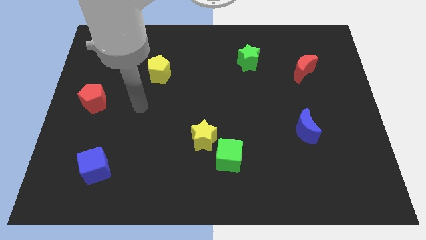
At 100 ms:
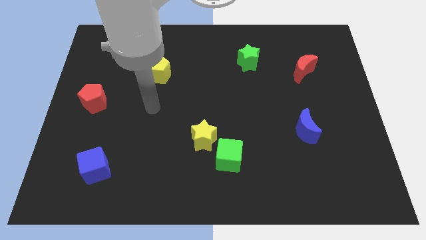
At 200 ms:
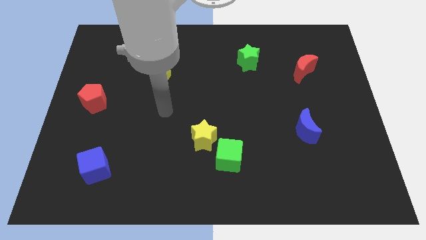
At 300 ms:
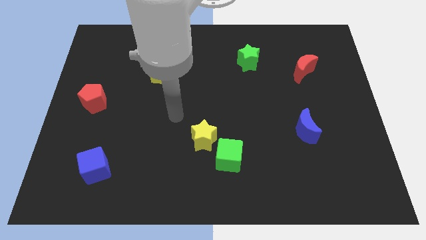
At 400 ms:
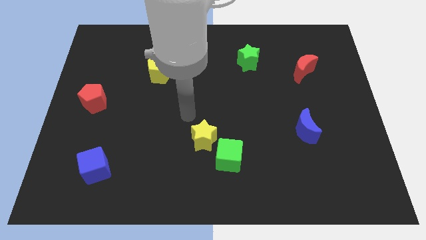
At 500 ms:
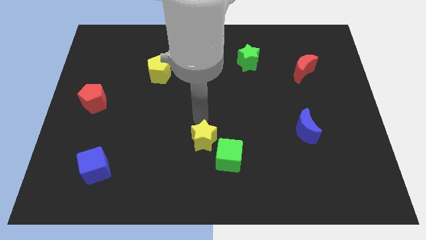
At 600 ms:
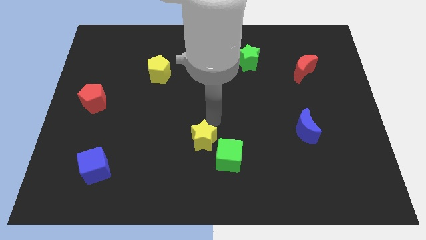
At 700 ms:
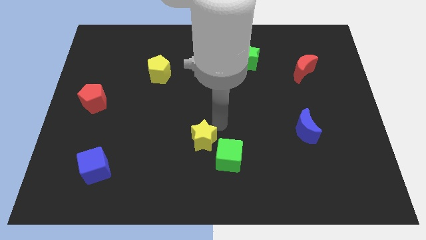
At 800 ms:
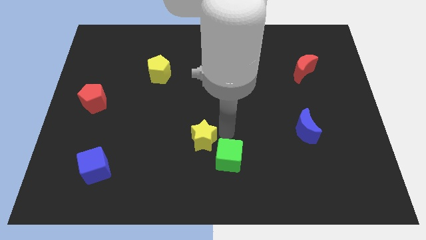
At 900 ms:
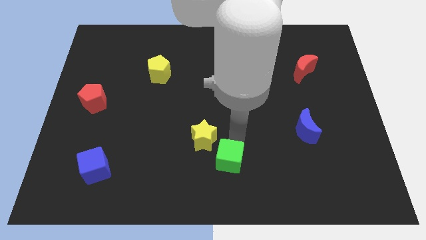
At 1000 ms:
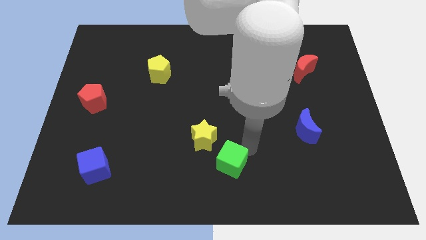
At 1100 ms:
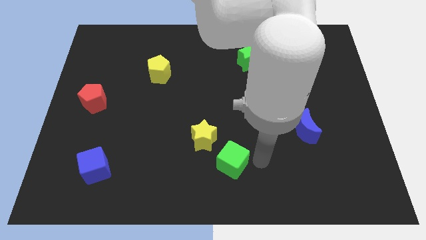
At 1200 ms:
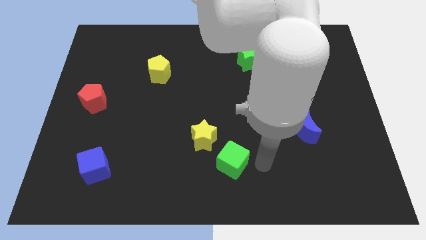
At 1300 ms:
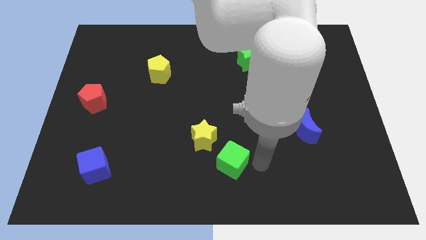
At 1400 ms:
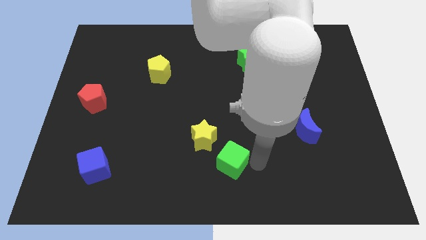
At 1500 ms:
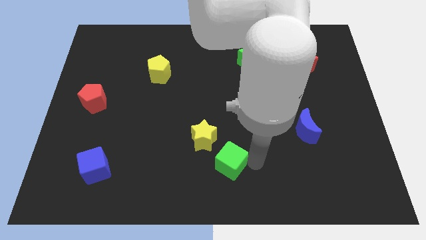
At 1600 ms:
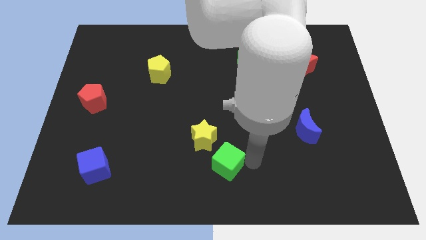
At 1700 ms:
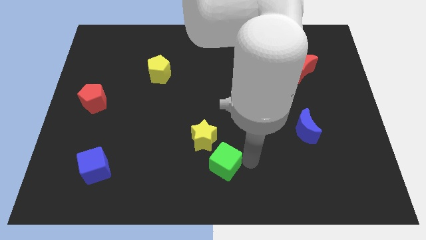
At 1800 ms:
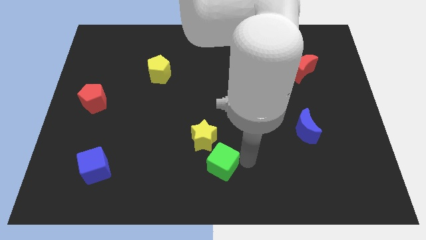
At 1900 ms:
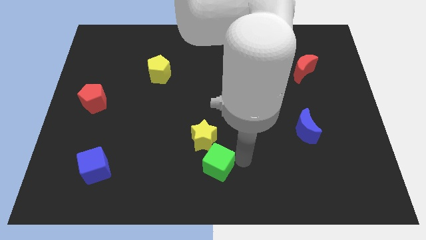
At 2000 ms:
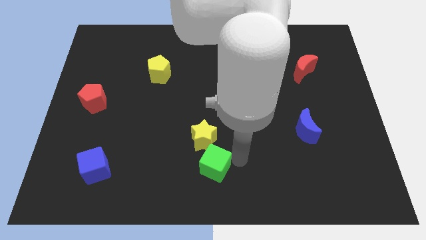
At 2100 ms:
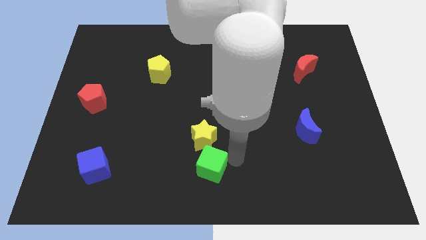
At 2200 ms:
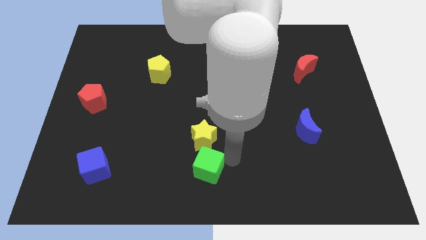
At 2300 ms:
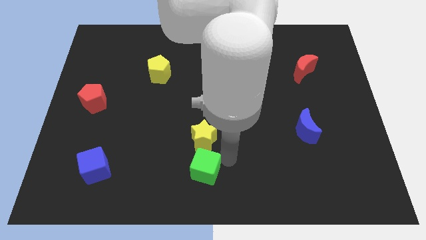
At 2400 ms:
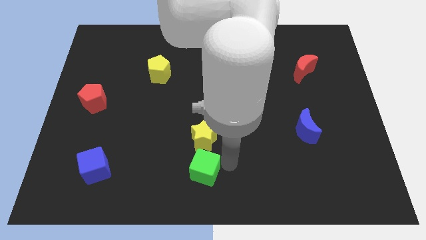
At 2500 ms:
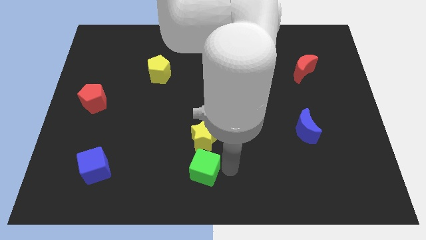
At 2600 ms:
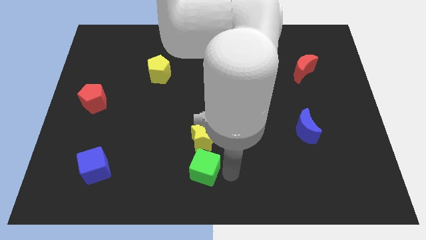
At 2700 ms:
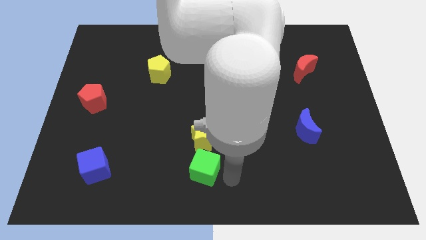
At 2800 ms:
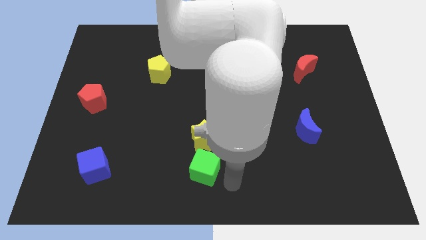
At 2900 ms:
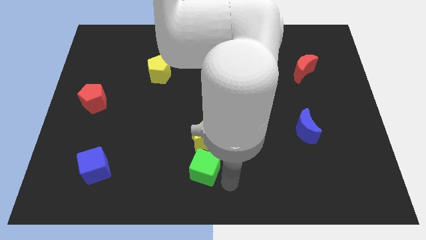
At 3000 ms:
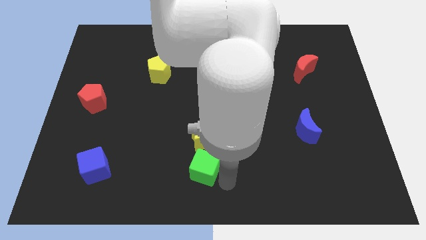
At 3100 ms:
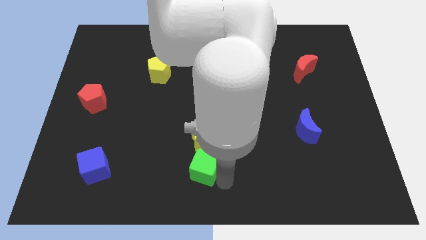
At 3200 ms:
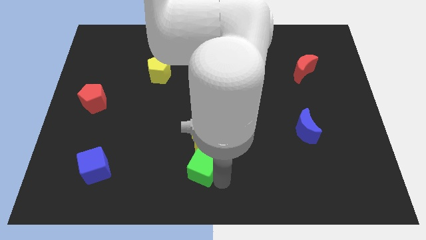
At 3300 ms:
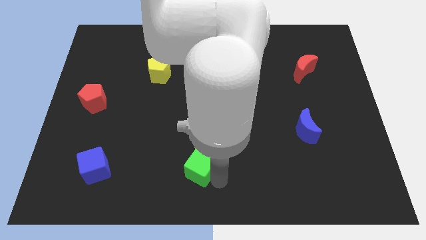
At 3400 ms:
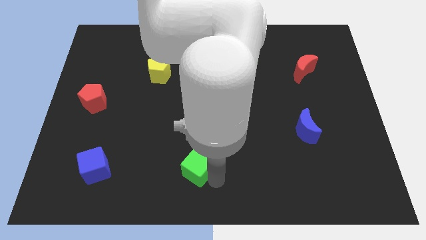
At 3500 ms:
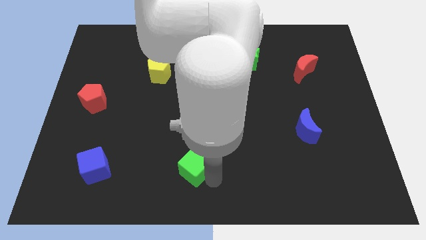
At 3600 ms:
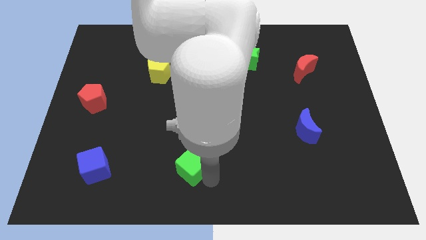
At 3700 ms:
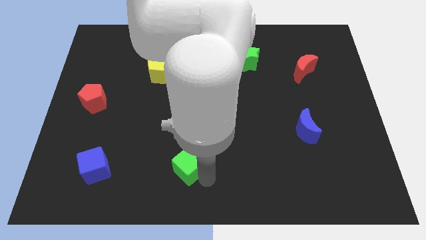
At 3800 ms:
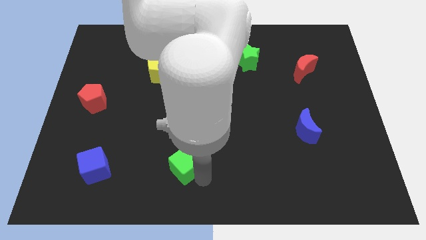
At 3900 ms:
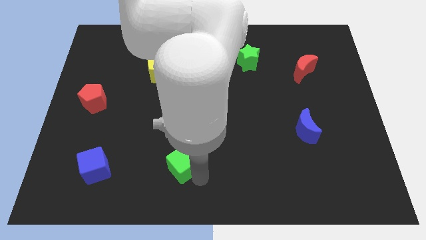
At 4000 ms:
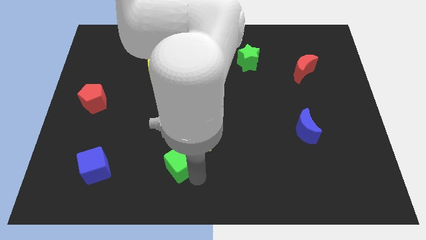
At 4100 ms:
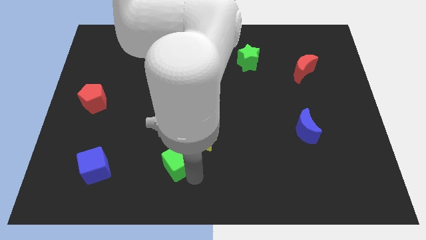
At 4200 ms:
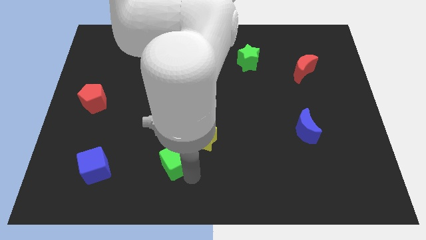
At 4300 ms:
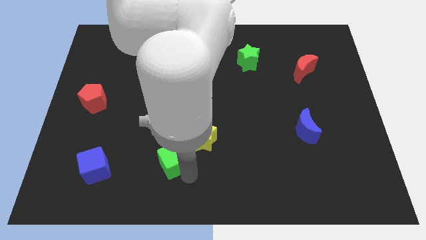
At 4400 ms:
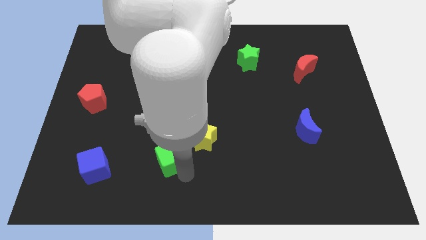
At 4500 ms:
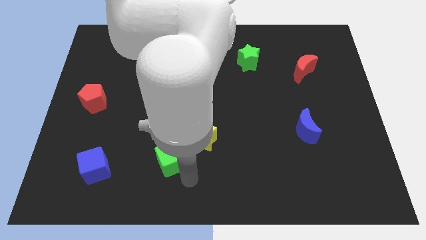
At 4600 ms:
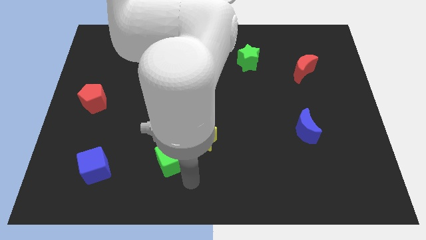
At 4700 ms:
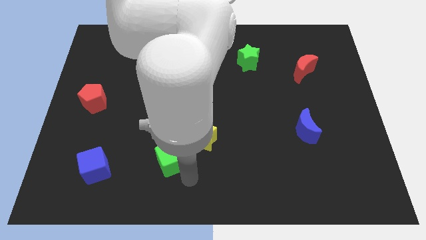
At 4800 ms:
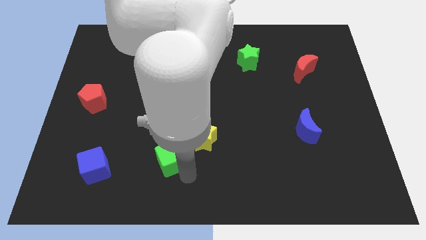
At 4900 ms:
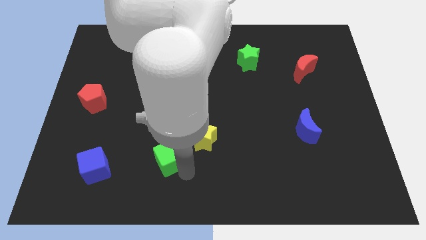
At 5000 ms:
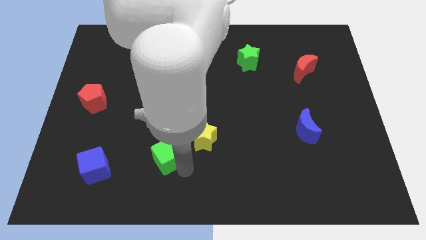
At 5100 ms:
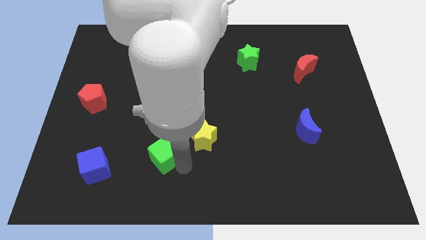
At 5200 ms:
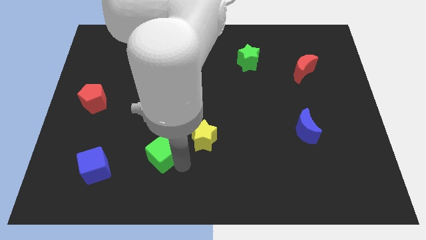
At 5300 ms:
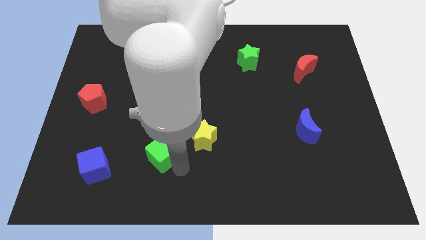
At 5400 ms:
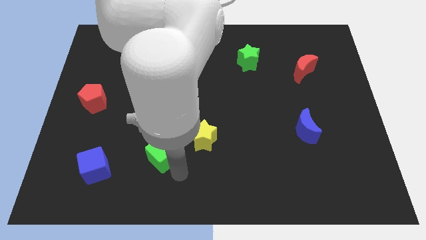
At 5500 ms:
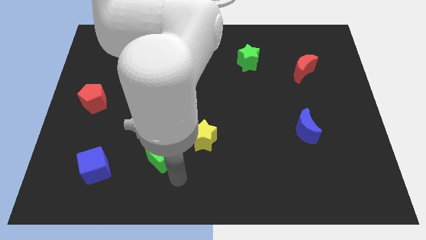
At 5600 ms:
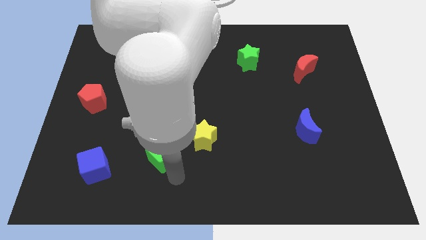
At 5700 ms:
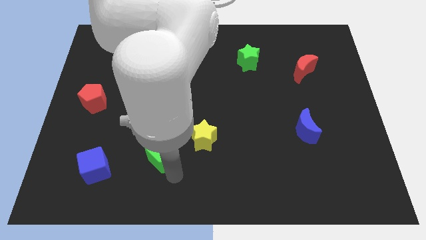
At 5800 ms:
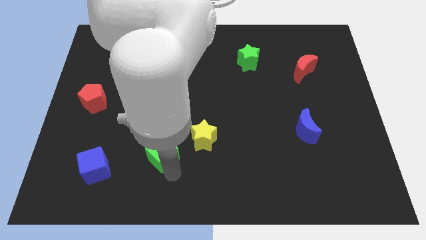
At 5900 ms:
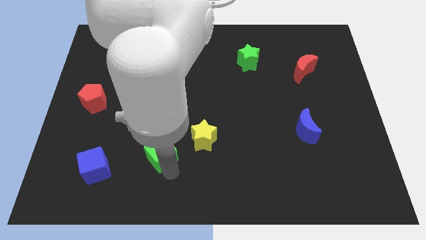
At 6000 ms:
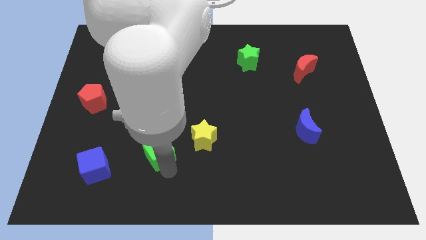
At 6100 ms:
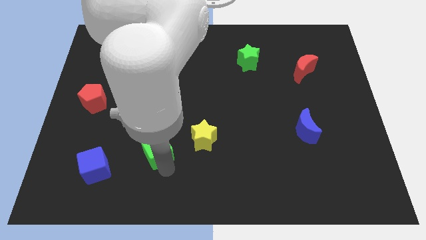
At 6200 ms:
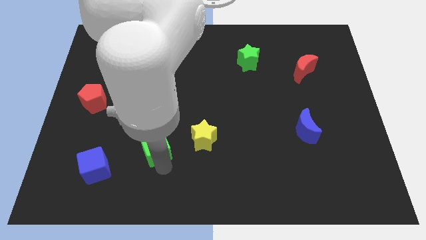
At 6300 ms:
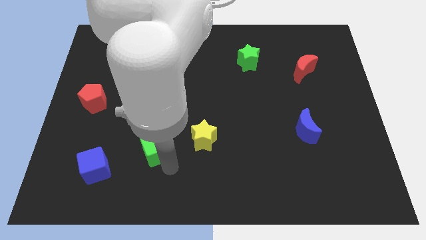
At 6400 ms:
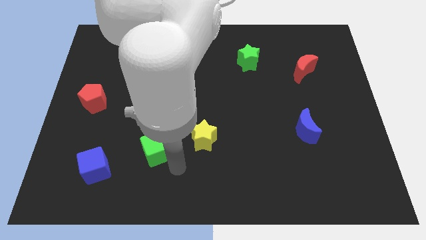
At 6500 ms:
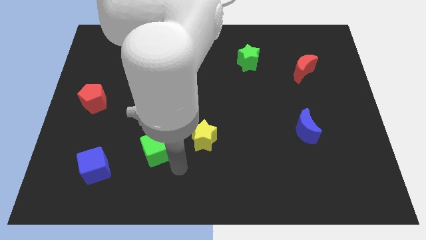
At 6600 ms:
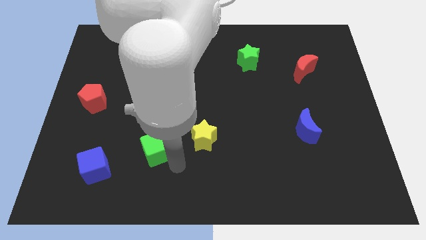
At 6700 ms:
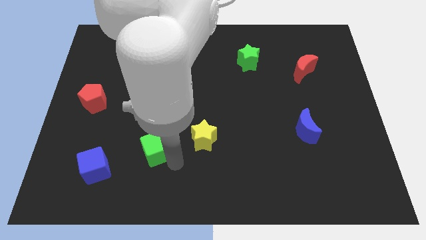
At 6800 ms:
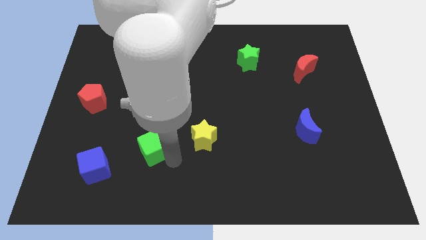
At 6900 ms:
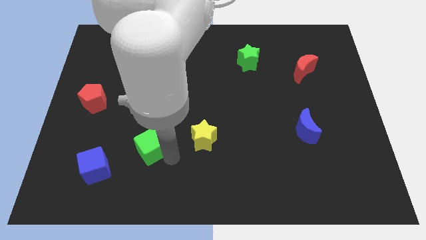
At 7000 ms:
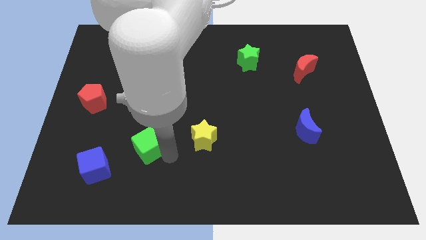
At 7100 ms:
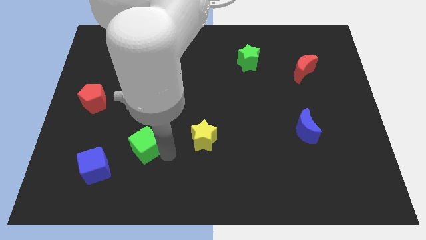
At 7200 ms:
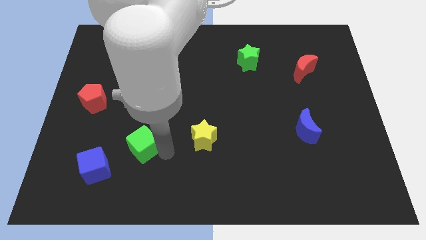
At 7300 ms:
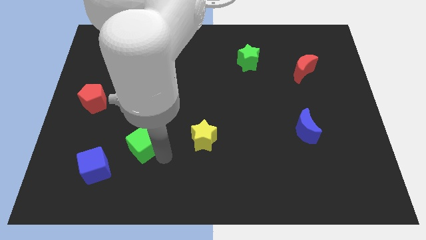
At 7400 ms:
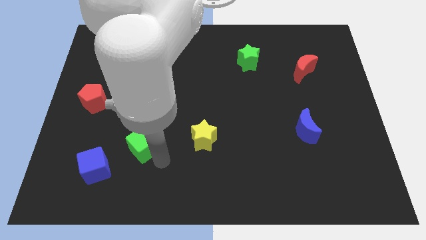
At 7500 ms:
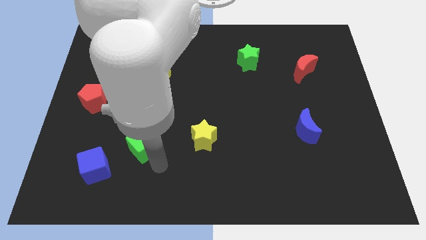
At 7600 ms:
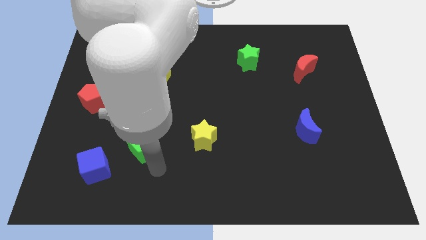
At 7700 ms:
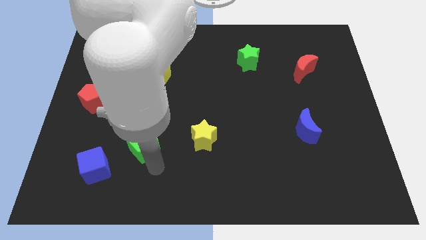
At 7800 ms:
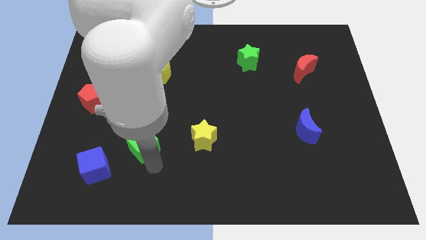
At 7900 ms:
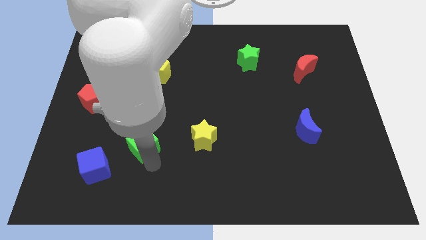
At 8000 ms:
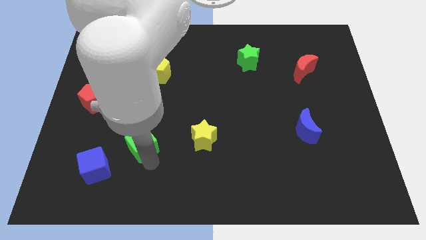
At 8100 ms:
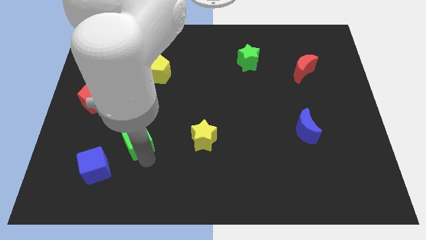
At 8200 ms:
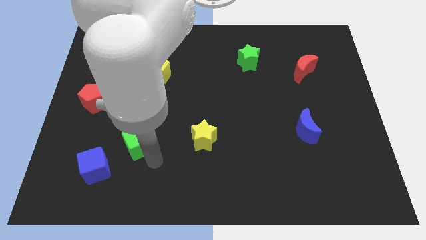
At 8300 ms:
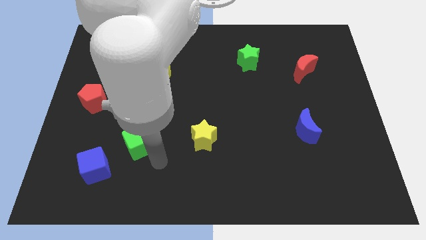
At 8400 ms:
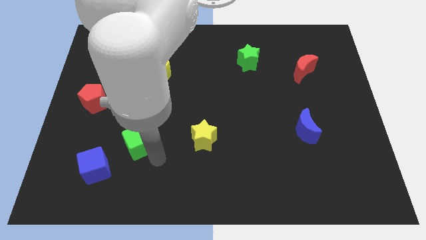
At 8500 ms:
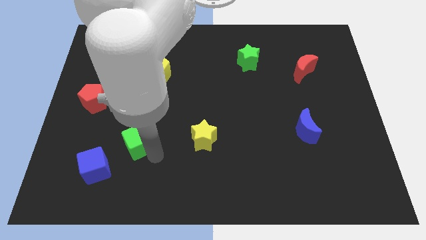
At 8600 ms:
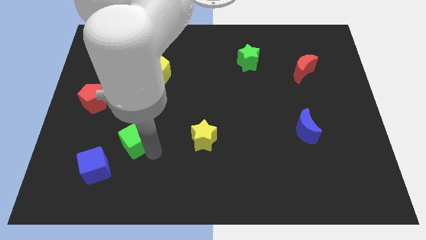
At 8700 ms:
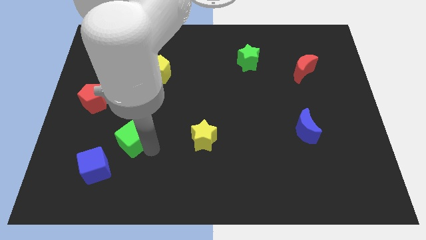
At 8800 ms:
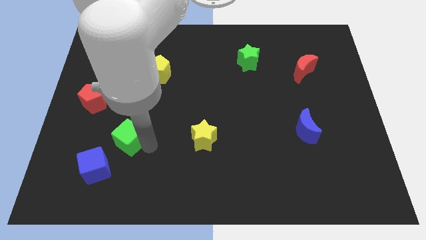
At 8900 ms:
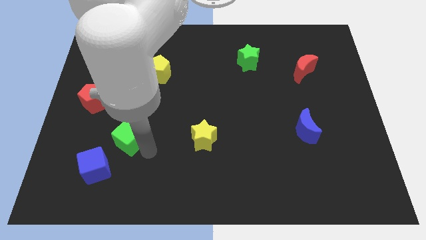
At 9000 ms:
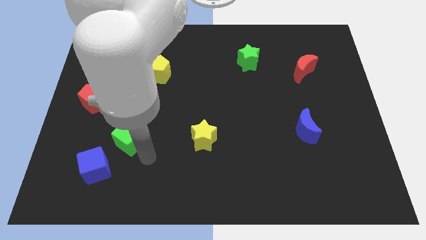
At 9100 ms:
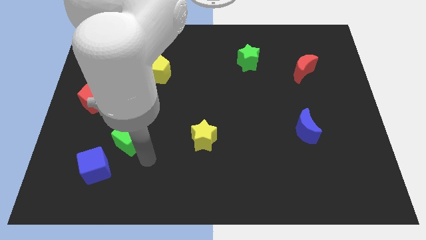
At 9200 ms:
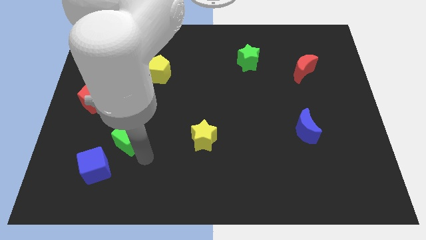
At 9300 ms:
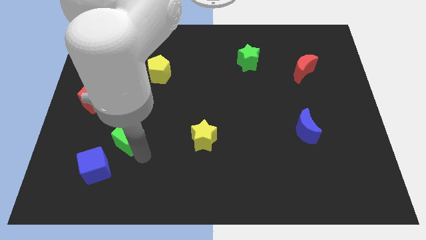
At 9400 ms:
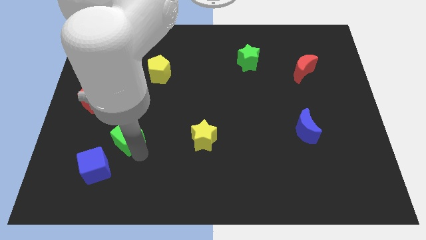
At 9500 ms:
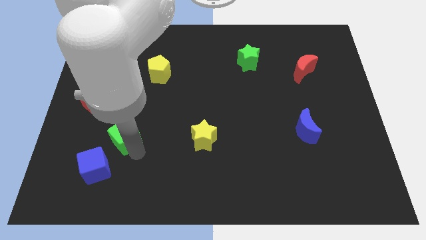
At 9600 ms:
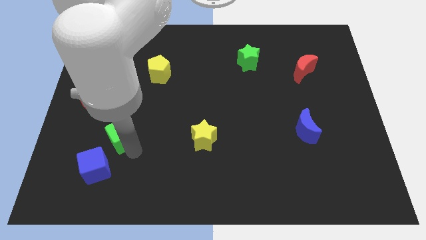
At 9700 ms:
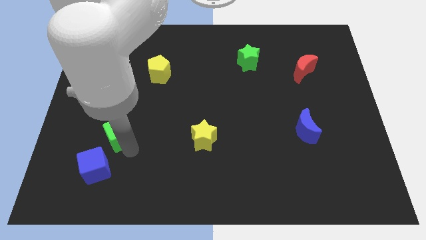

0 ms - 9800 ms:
move the green cube to the bottom right of the red pentagon
